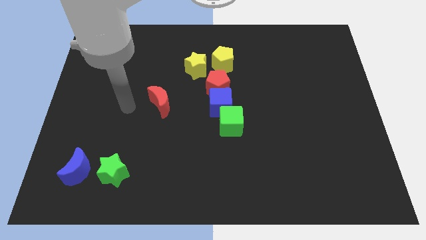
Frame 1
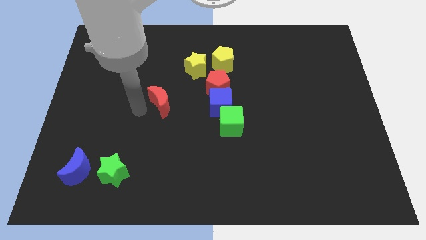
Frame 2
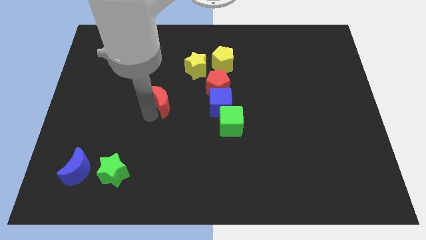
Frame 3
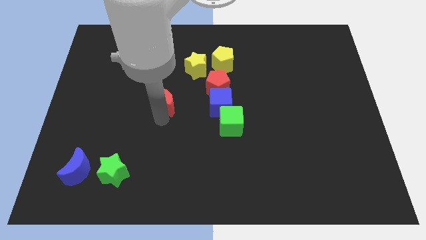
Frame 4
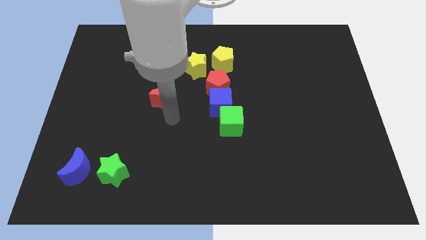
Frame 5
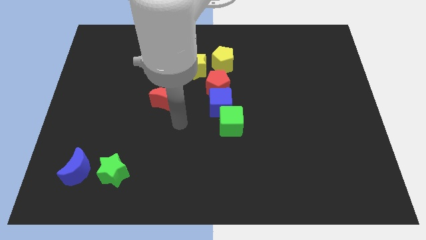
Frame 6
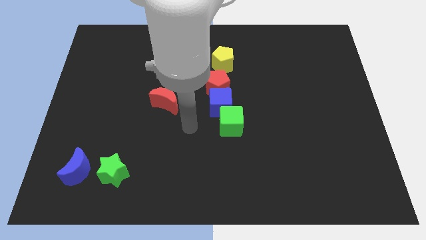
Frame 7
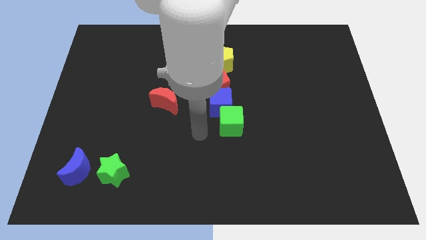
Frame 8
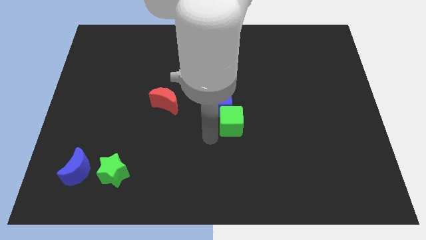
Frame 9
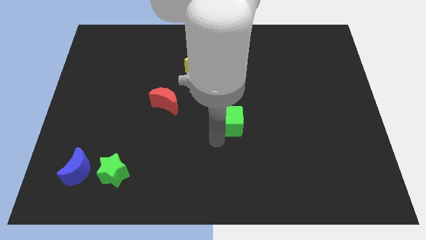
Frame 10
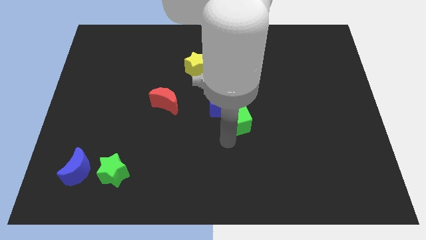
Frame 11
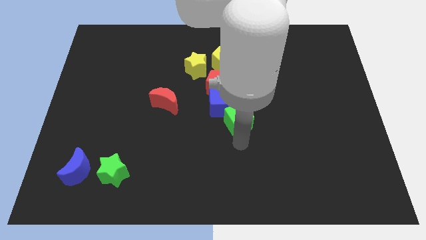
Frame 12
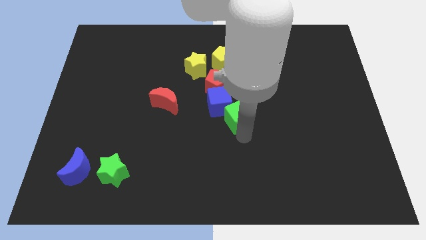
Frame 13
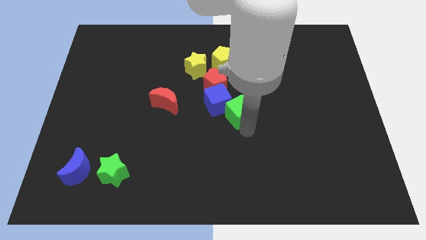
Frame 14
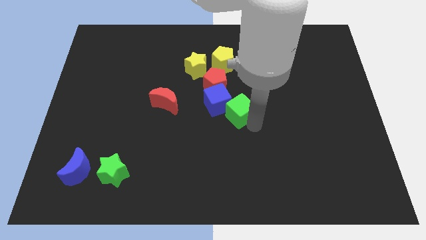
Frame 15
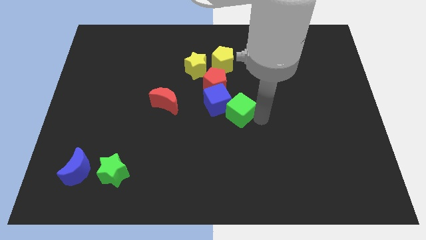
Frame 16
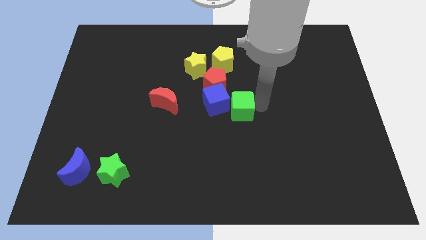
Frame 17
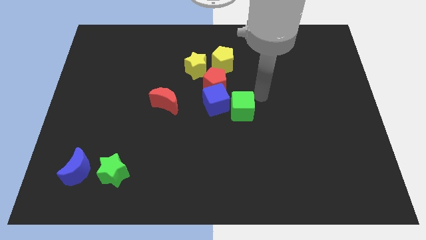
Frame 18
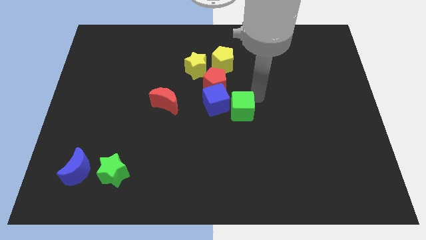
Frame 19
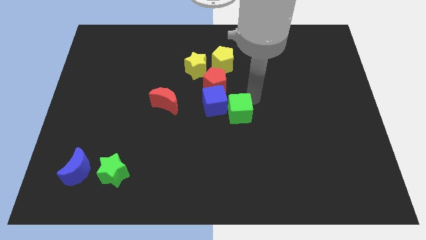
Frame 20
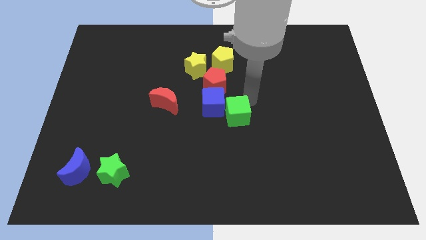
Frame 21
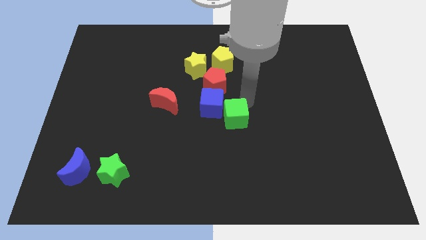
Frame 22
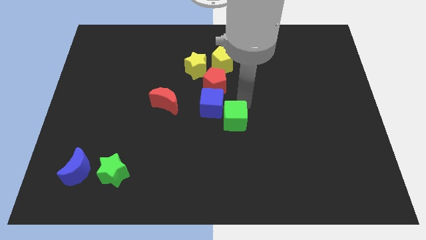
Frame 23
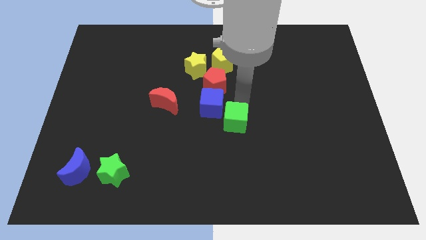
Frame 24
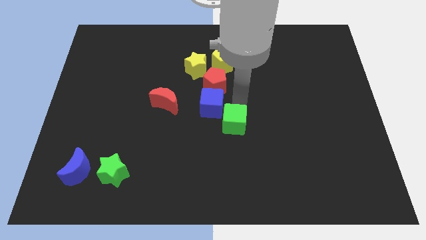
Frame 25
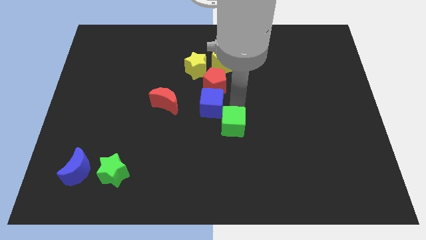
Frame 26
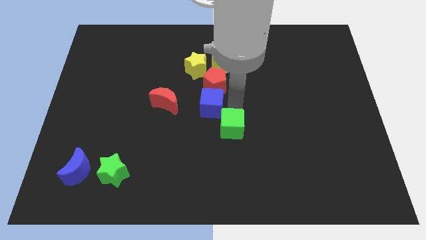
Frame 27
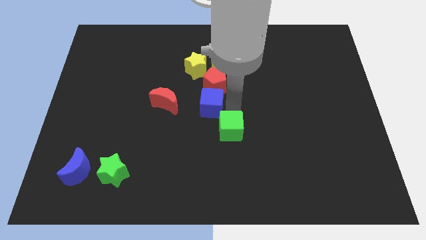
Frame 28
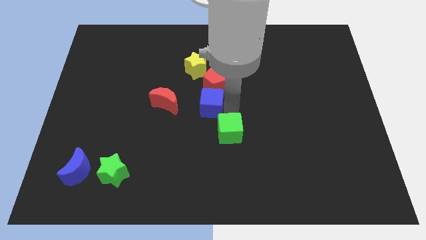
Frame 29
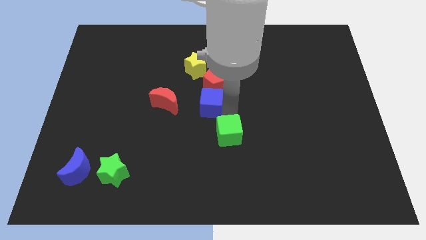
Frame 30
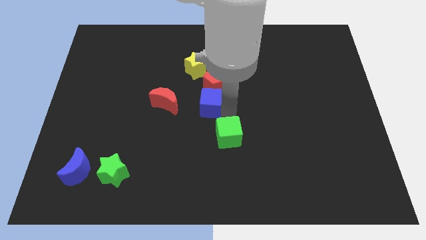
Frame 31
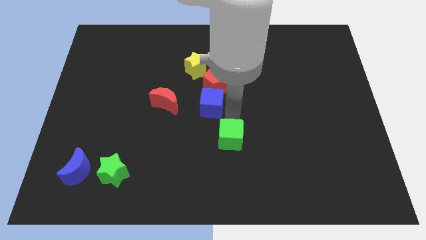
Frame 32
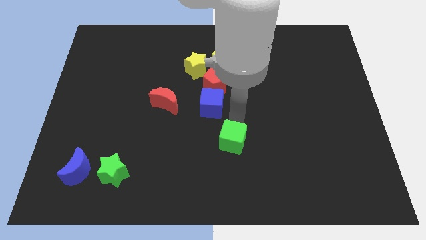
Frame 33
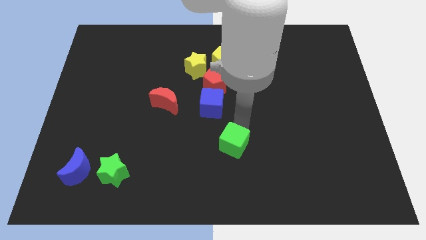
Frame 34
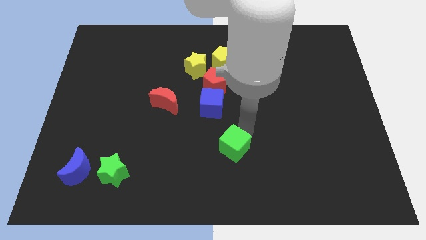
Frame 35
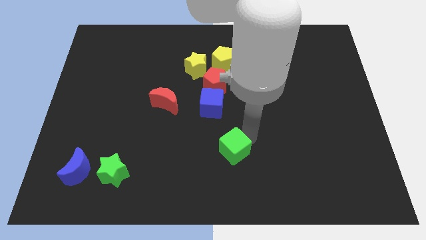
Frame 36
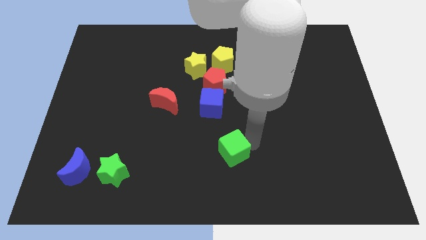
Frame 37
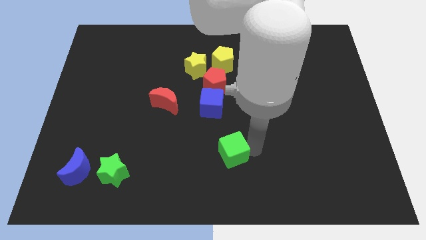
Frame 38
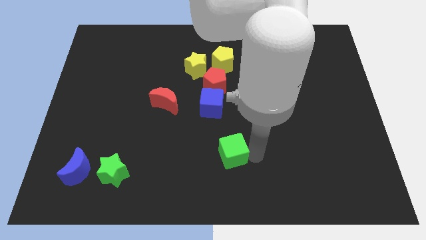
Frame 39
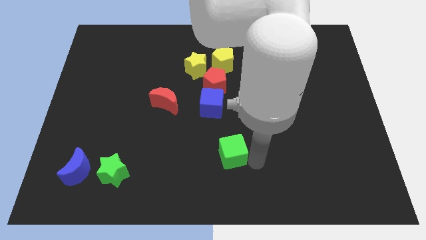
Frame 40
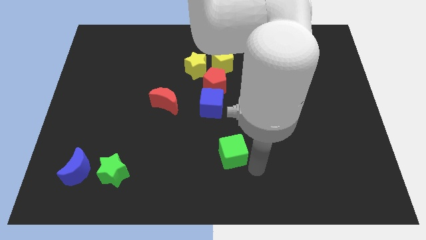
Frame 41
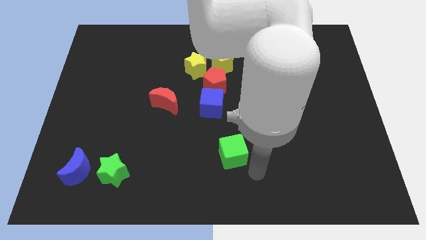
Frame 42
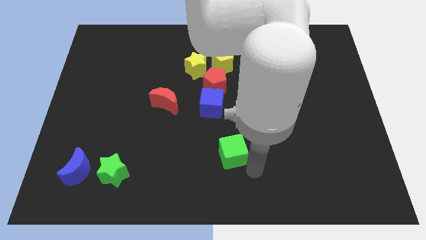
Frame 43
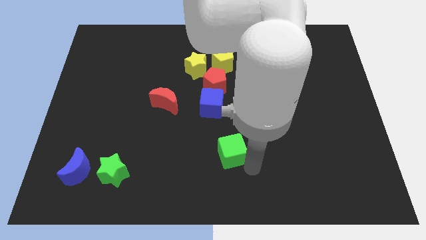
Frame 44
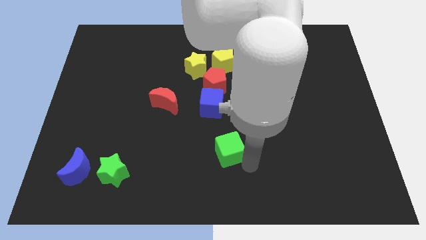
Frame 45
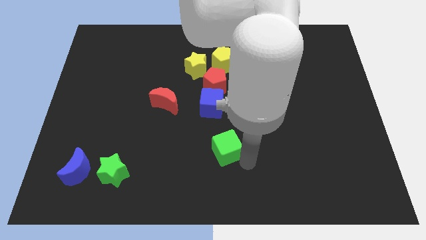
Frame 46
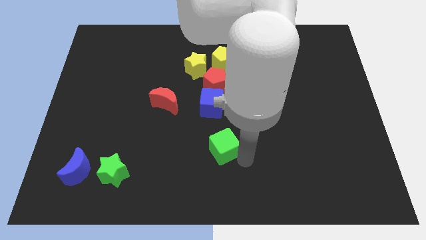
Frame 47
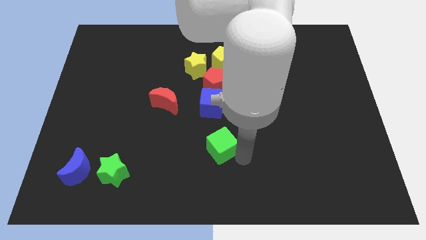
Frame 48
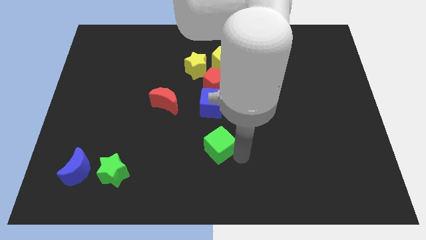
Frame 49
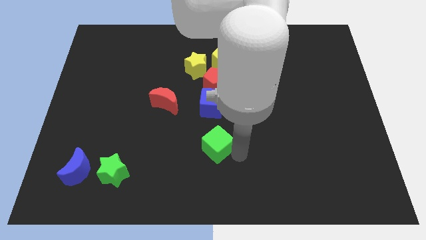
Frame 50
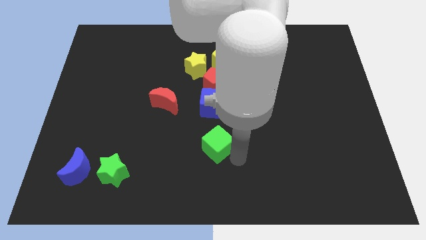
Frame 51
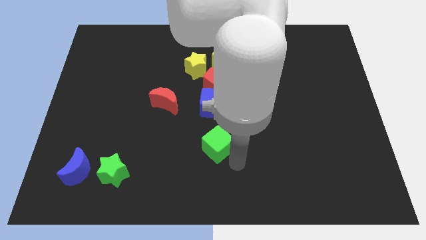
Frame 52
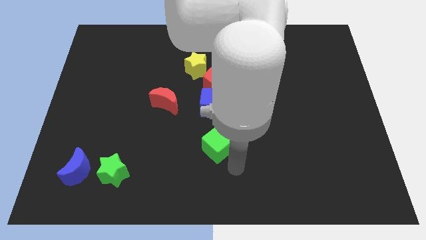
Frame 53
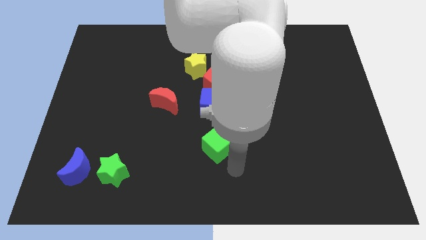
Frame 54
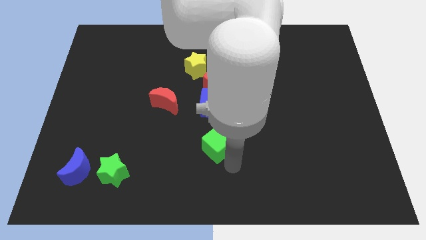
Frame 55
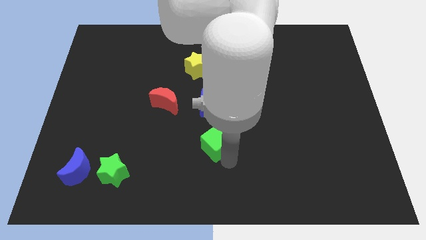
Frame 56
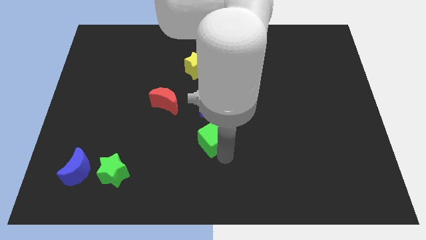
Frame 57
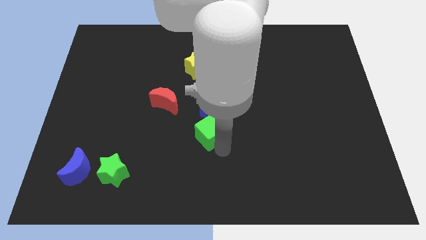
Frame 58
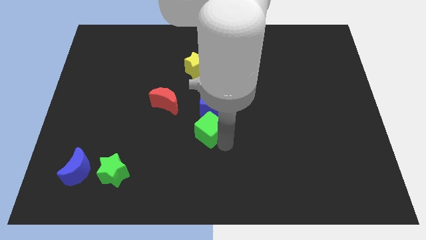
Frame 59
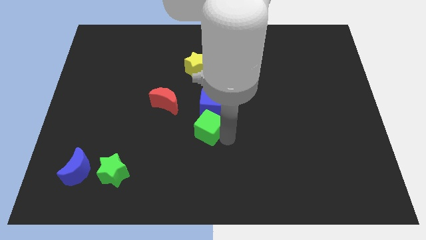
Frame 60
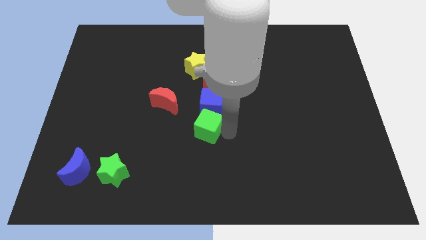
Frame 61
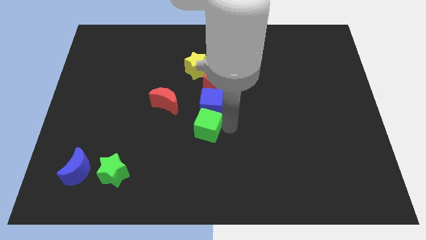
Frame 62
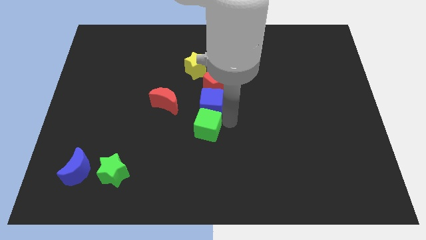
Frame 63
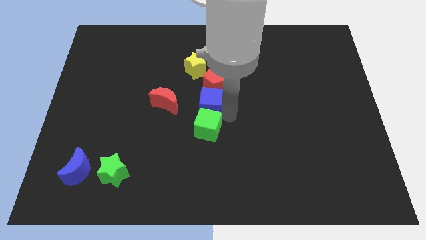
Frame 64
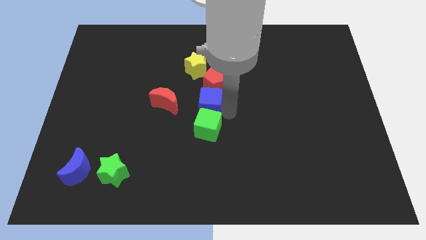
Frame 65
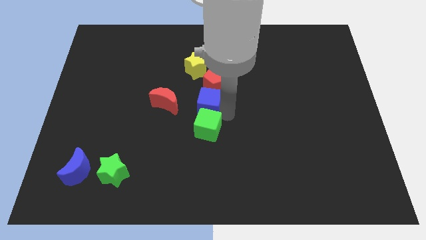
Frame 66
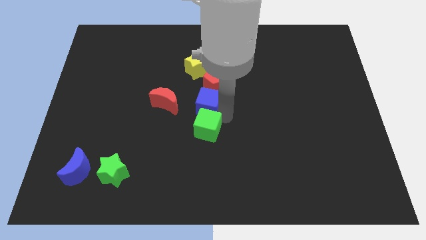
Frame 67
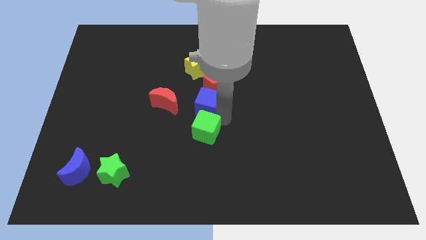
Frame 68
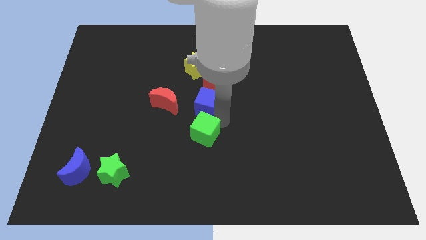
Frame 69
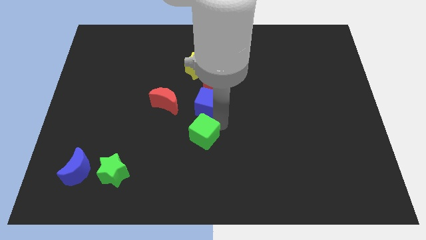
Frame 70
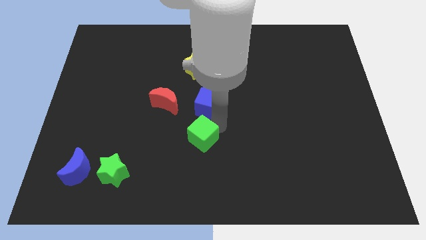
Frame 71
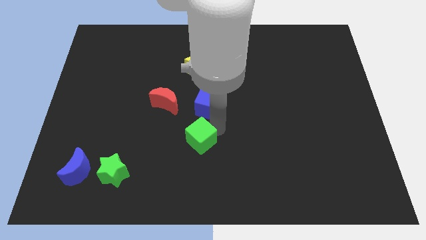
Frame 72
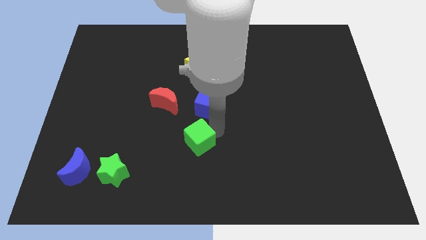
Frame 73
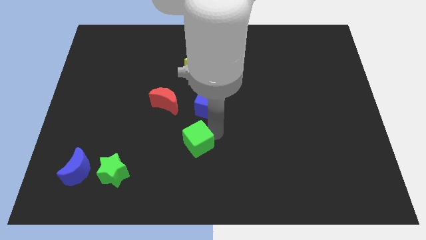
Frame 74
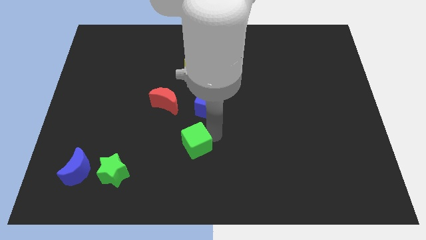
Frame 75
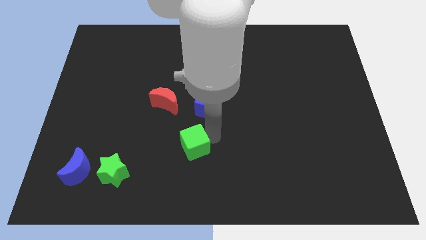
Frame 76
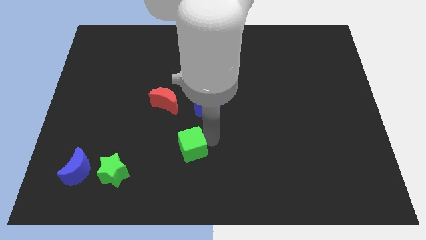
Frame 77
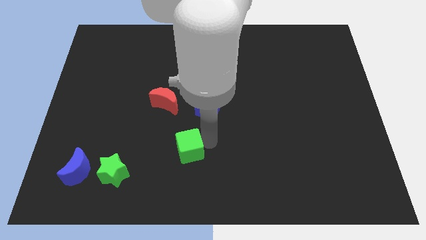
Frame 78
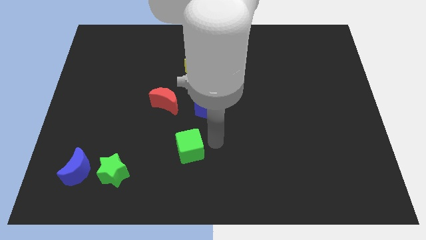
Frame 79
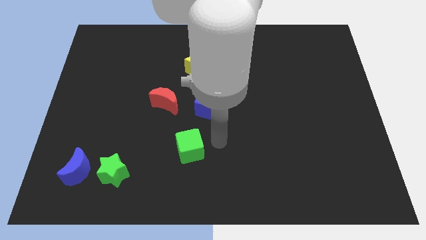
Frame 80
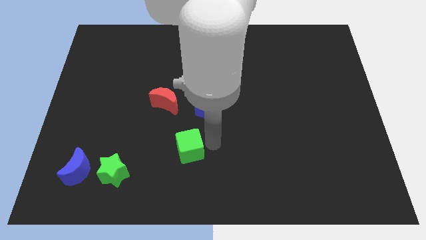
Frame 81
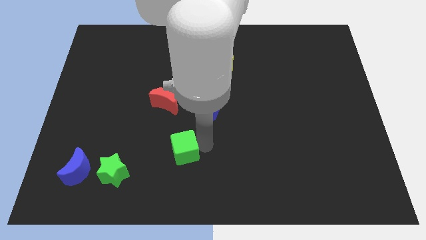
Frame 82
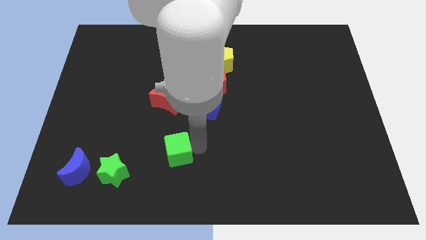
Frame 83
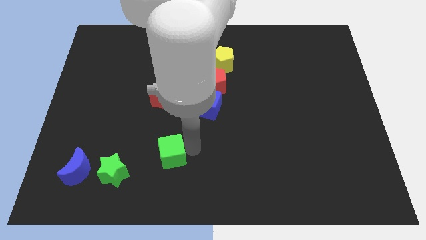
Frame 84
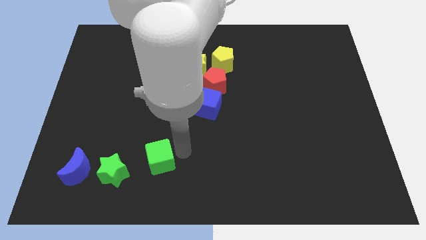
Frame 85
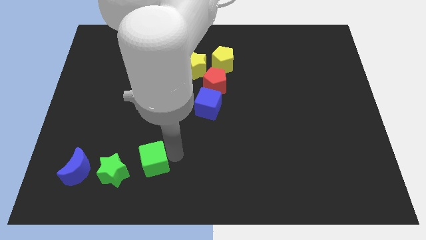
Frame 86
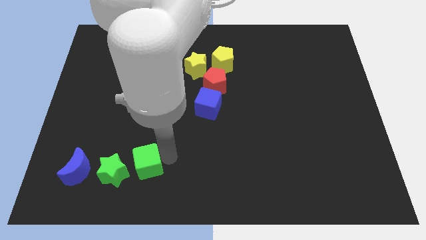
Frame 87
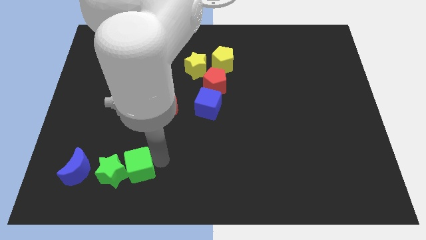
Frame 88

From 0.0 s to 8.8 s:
put the green cube towards the green star
